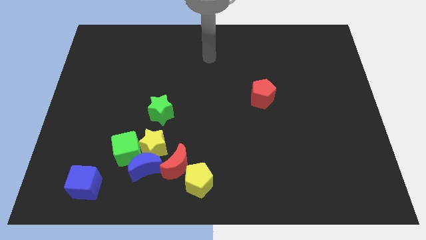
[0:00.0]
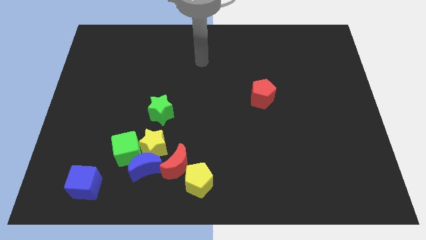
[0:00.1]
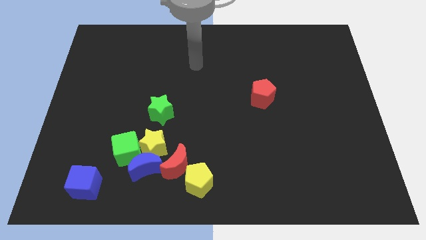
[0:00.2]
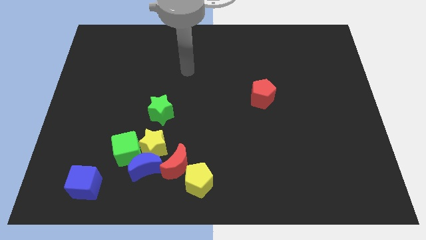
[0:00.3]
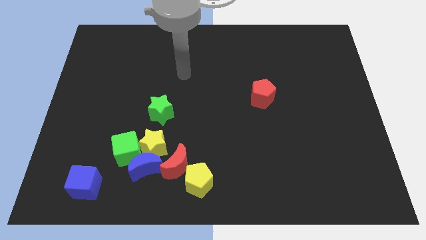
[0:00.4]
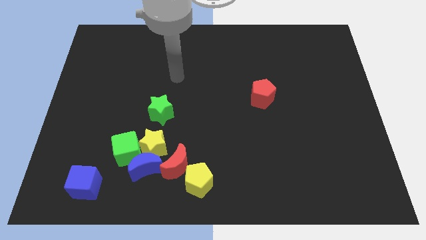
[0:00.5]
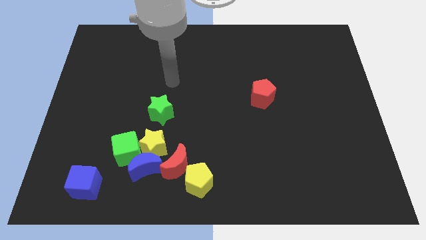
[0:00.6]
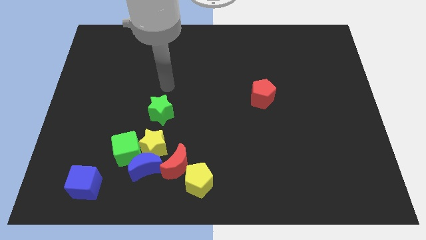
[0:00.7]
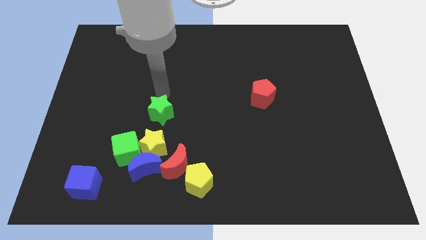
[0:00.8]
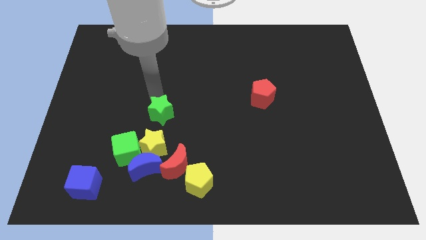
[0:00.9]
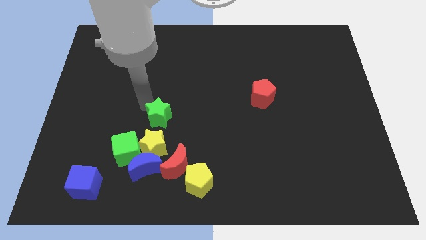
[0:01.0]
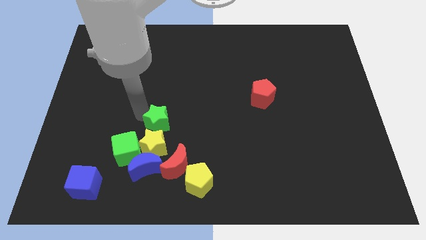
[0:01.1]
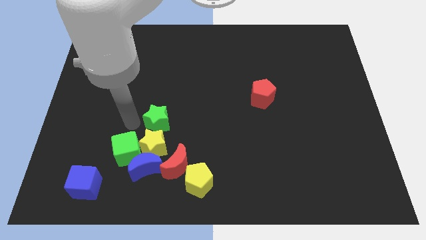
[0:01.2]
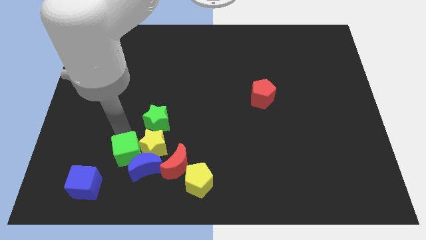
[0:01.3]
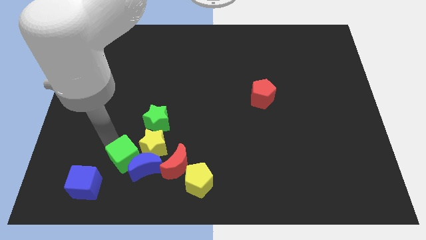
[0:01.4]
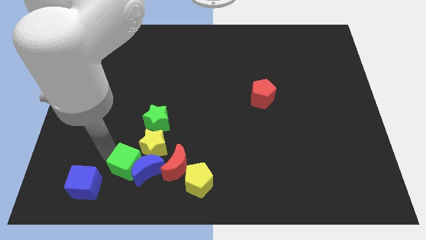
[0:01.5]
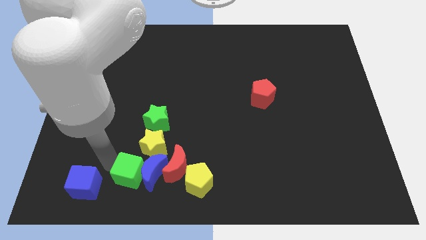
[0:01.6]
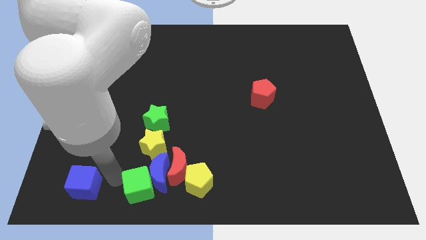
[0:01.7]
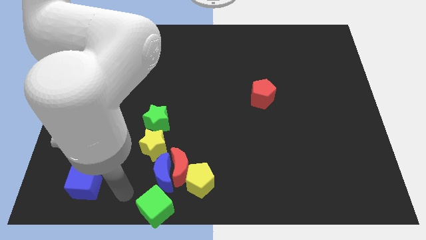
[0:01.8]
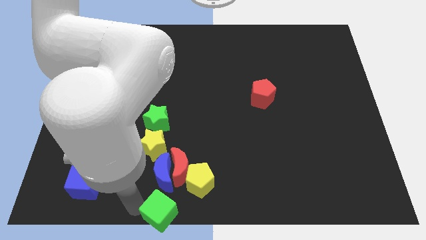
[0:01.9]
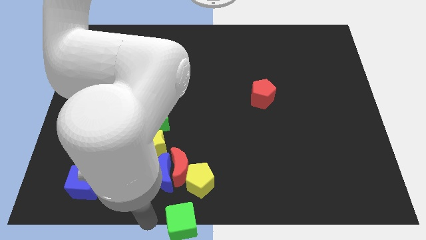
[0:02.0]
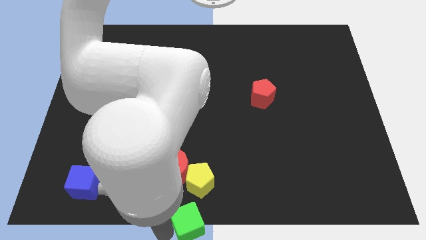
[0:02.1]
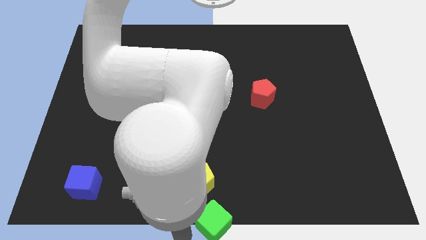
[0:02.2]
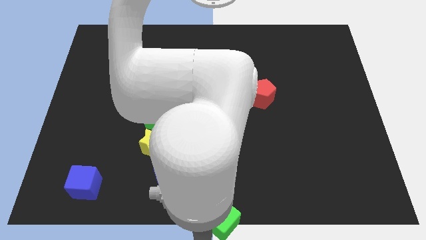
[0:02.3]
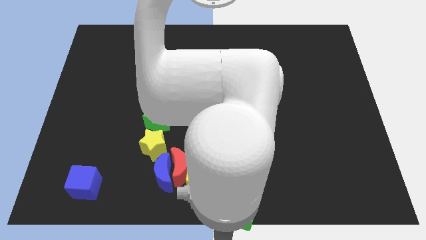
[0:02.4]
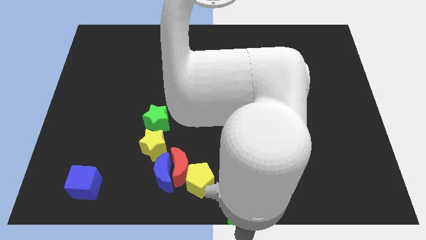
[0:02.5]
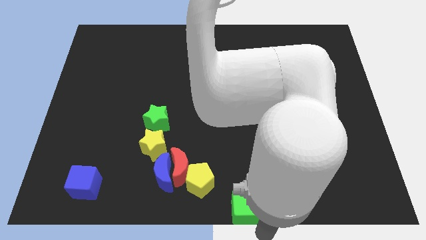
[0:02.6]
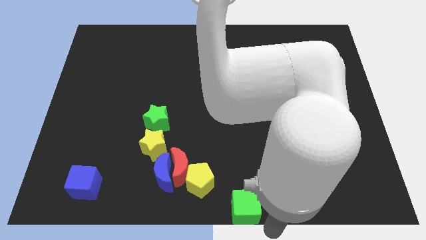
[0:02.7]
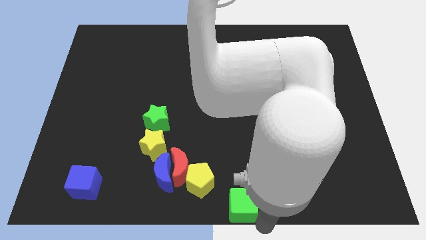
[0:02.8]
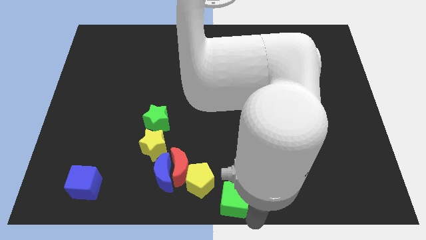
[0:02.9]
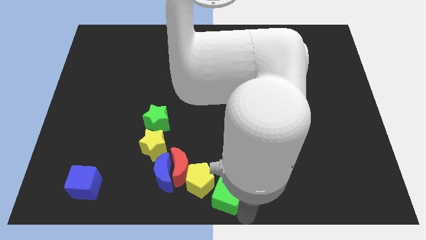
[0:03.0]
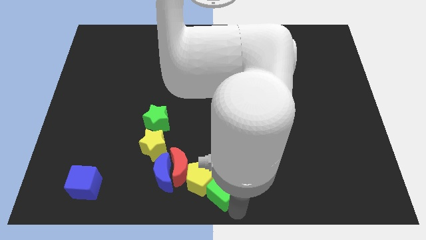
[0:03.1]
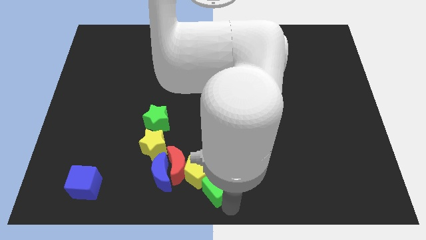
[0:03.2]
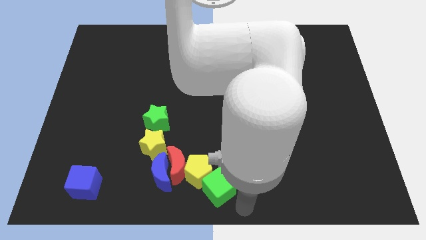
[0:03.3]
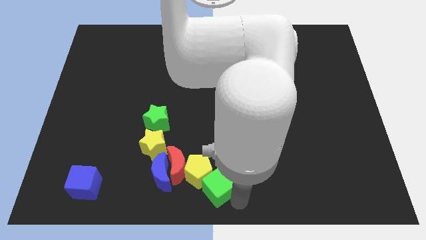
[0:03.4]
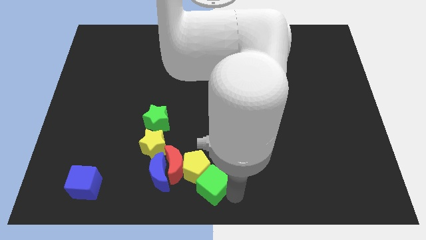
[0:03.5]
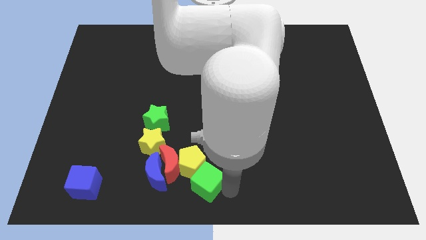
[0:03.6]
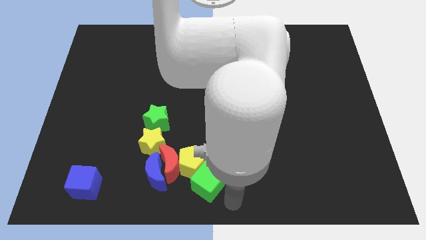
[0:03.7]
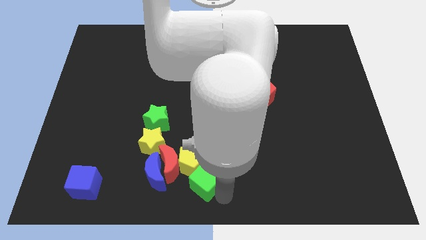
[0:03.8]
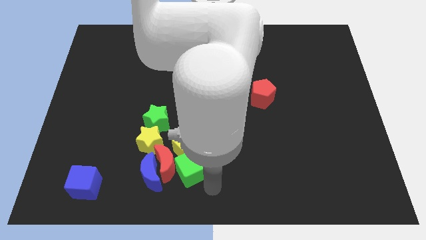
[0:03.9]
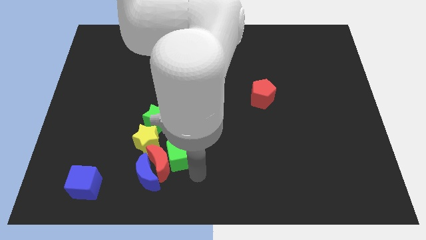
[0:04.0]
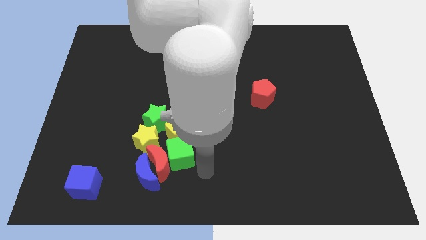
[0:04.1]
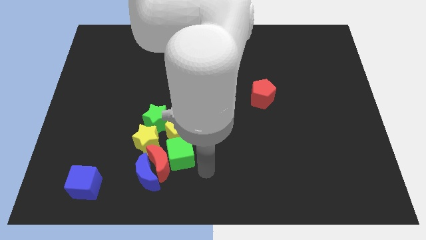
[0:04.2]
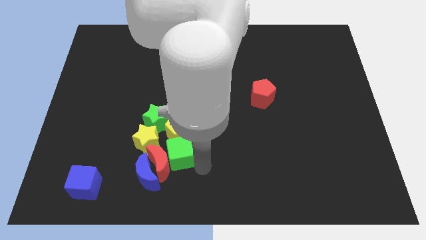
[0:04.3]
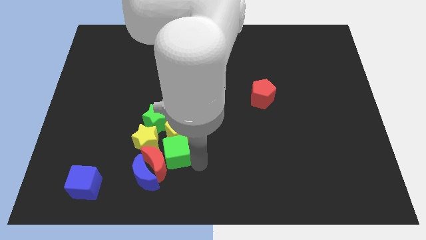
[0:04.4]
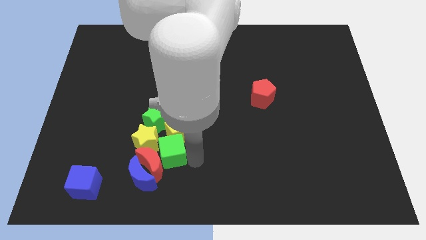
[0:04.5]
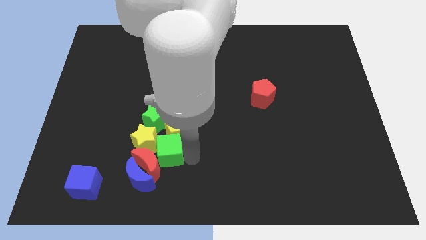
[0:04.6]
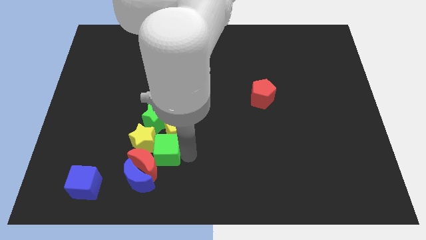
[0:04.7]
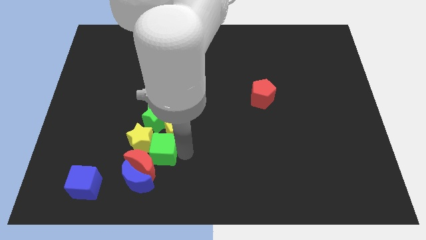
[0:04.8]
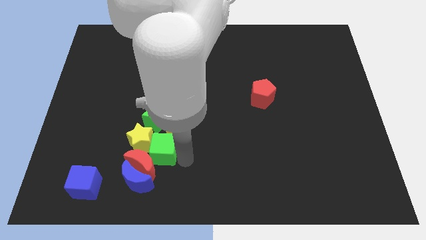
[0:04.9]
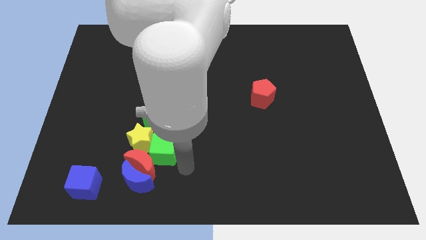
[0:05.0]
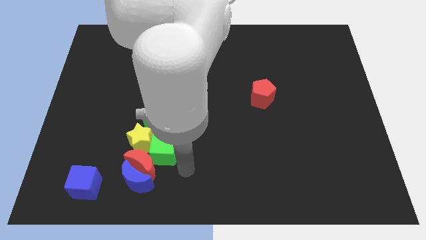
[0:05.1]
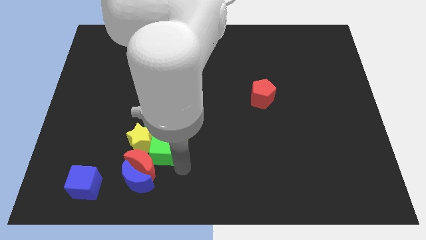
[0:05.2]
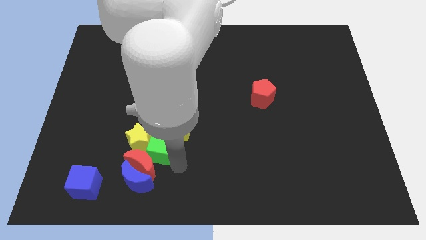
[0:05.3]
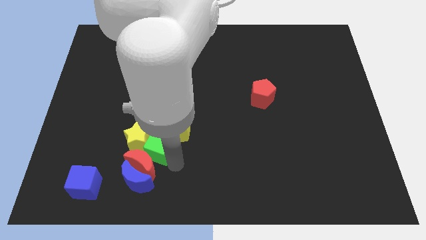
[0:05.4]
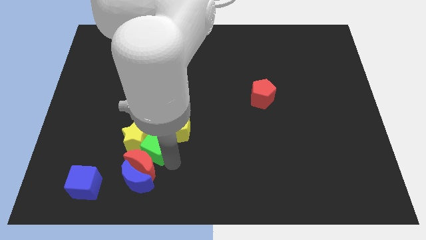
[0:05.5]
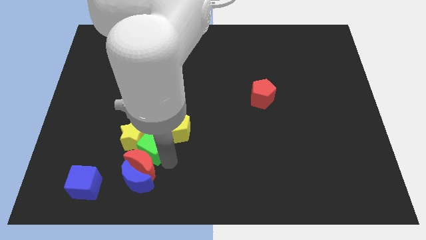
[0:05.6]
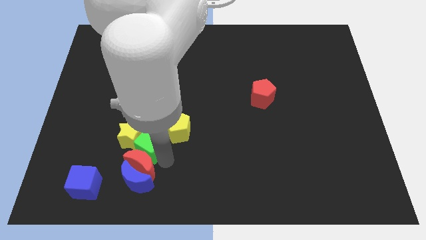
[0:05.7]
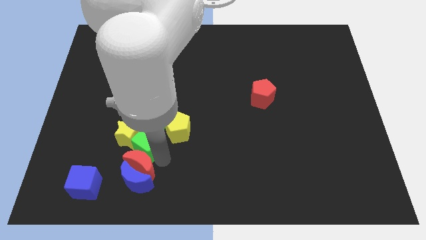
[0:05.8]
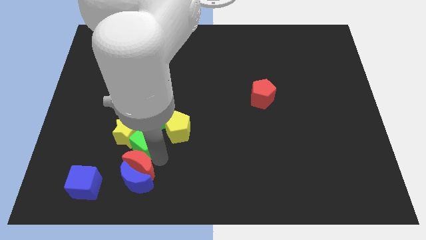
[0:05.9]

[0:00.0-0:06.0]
put the green cube close to the green star

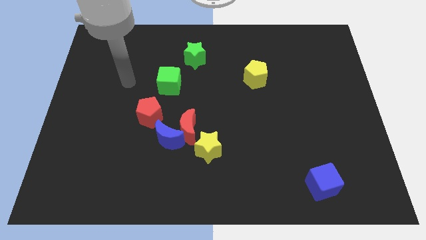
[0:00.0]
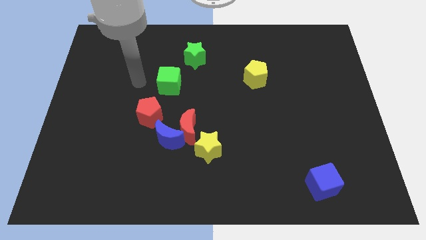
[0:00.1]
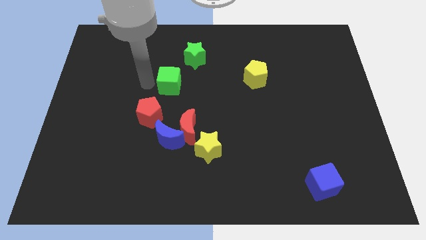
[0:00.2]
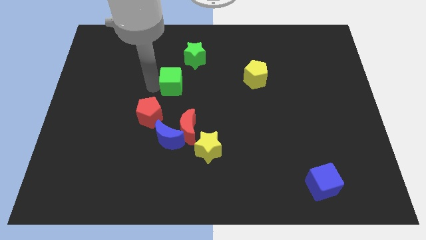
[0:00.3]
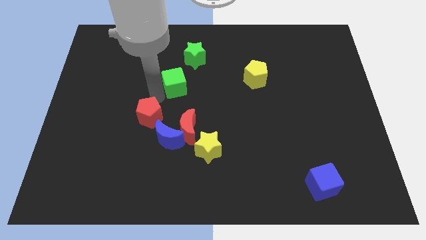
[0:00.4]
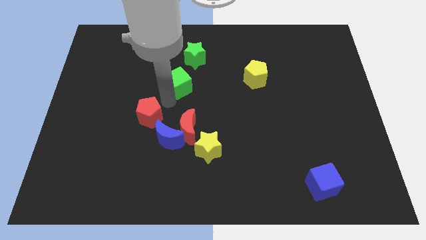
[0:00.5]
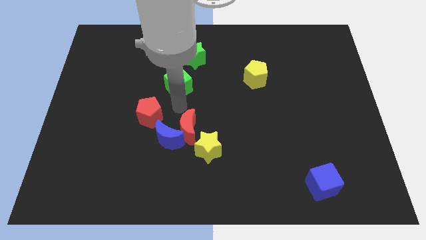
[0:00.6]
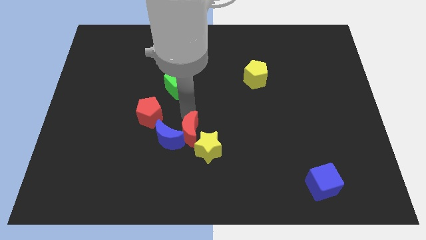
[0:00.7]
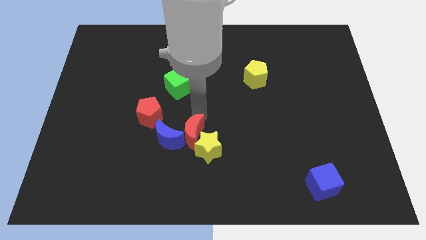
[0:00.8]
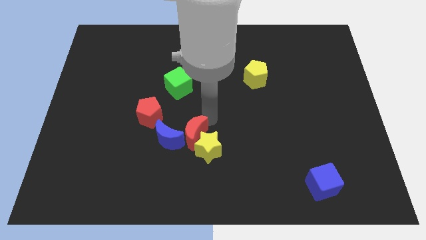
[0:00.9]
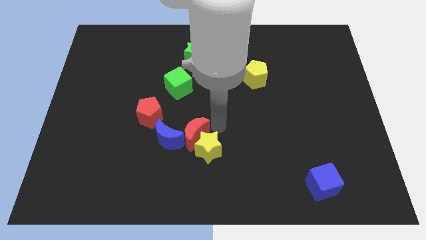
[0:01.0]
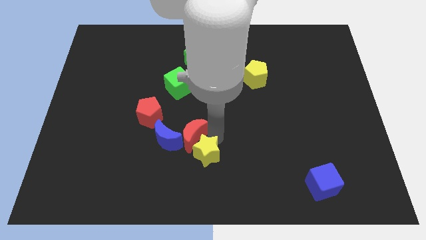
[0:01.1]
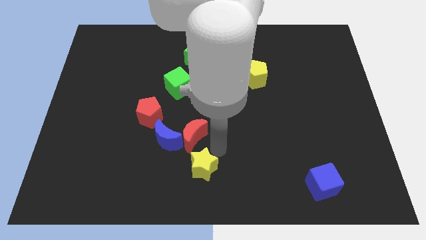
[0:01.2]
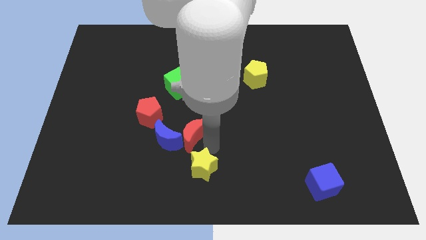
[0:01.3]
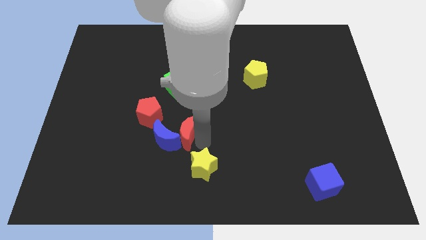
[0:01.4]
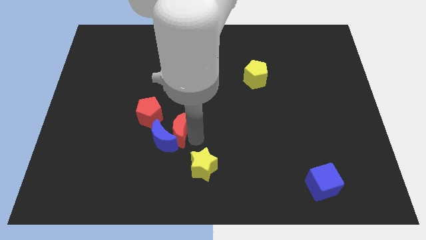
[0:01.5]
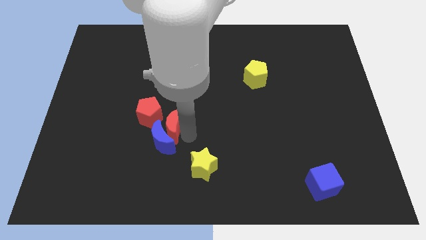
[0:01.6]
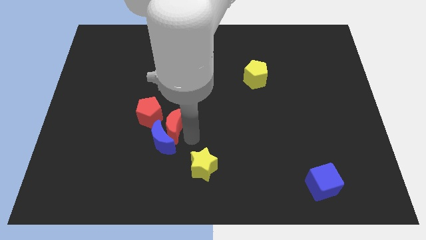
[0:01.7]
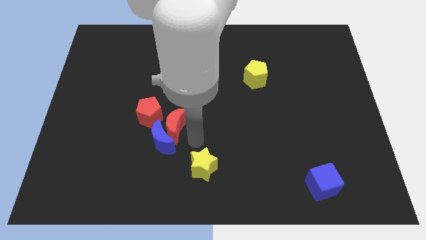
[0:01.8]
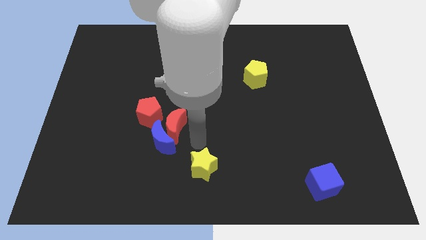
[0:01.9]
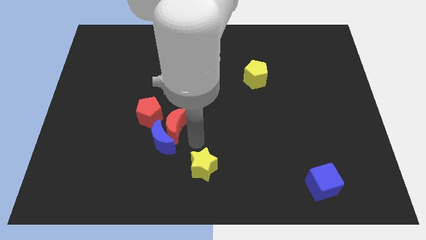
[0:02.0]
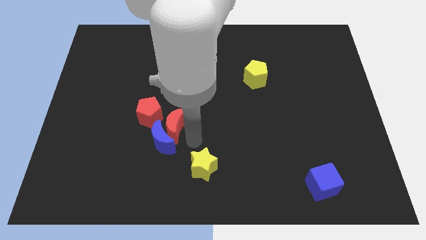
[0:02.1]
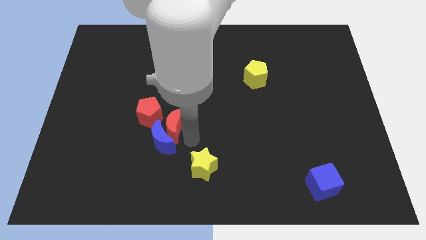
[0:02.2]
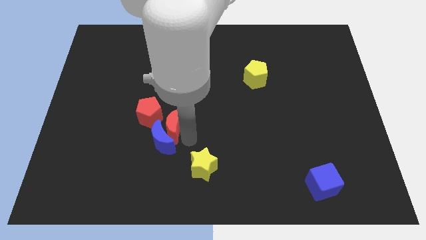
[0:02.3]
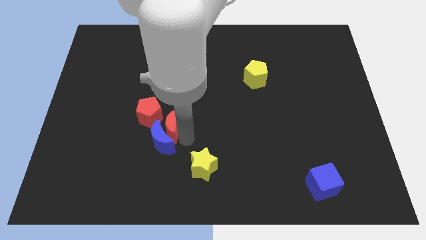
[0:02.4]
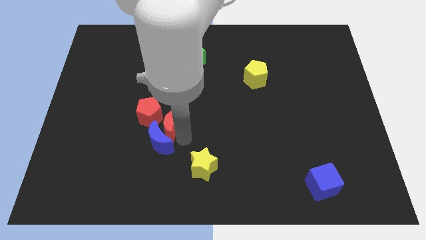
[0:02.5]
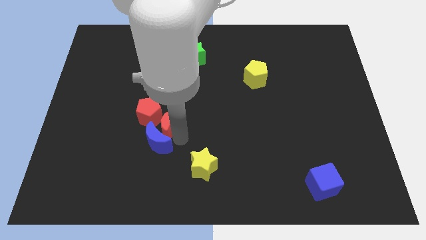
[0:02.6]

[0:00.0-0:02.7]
slide the red moon to the red pentagon
